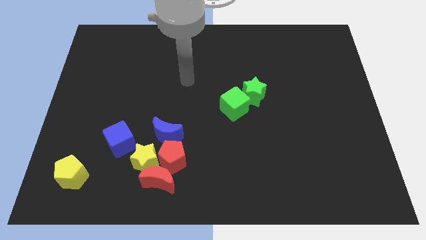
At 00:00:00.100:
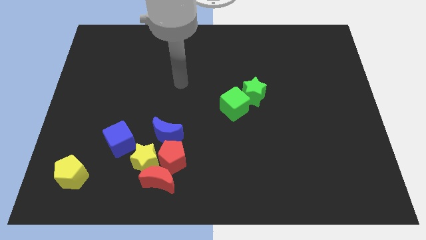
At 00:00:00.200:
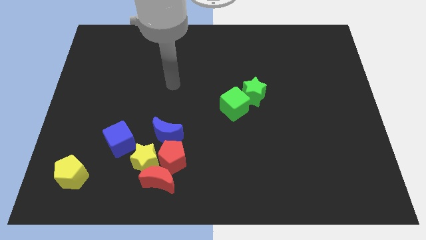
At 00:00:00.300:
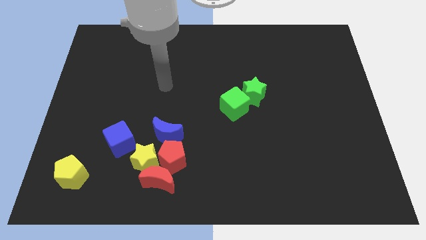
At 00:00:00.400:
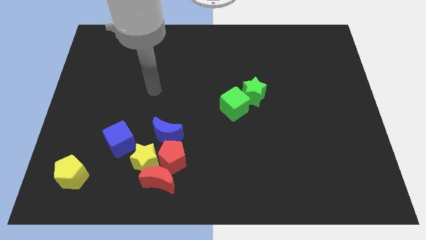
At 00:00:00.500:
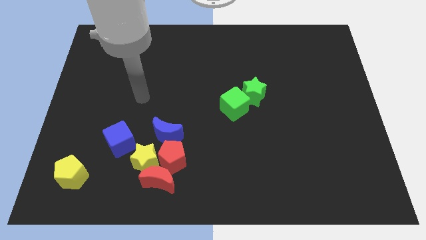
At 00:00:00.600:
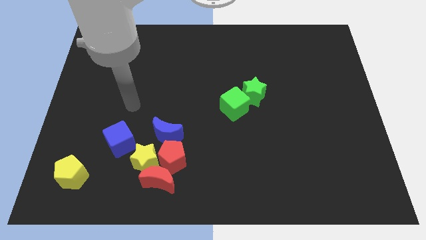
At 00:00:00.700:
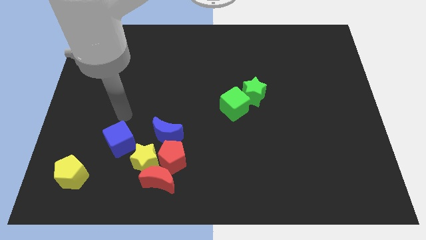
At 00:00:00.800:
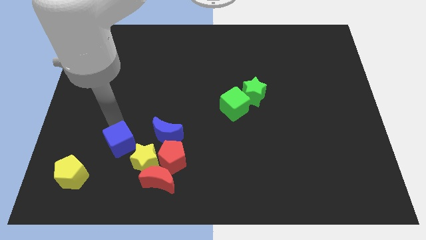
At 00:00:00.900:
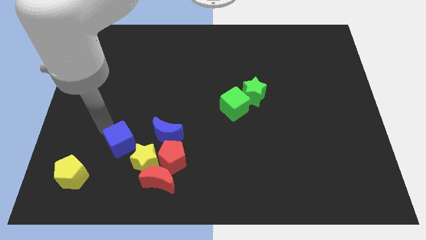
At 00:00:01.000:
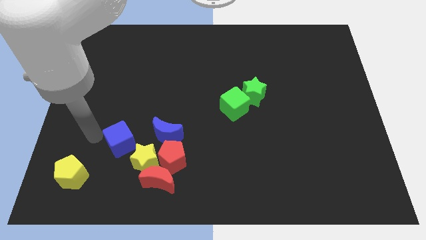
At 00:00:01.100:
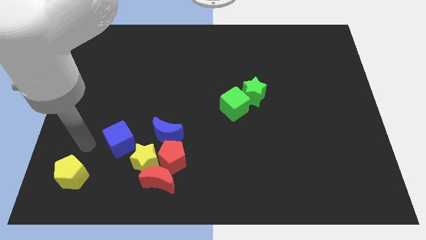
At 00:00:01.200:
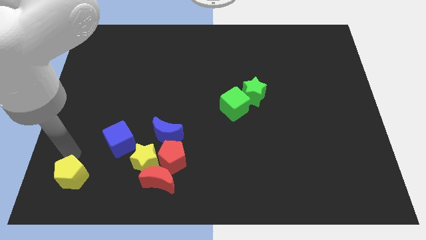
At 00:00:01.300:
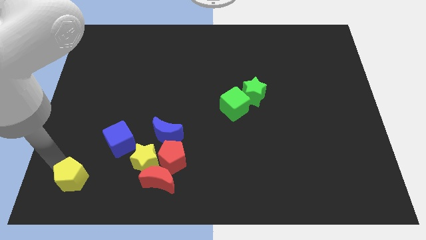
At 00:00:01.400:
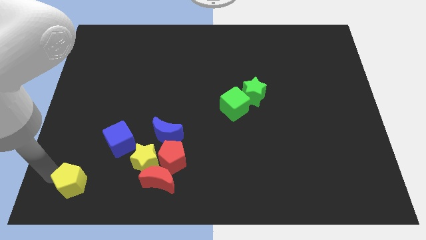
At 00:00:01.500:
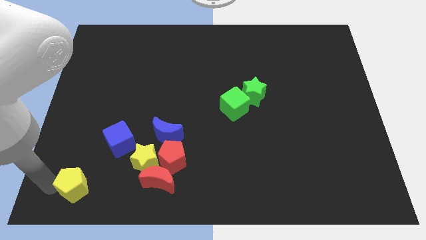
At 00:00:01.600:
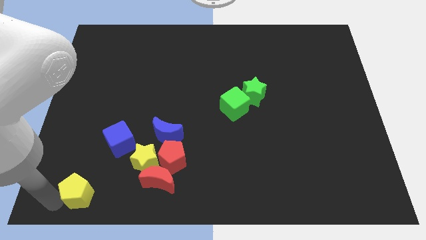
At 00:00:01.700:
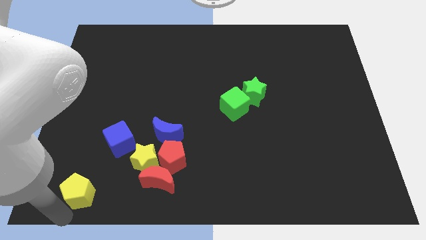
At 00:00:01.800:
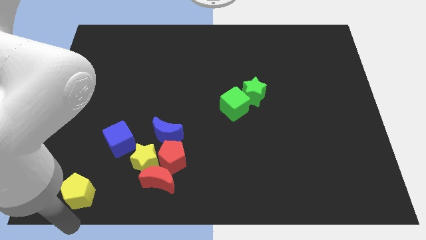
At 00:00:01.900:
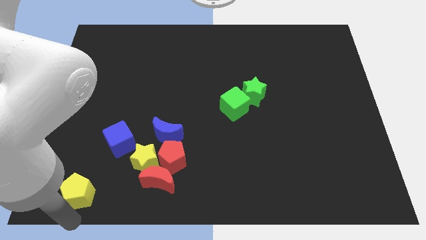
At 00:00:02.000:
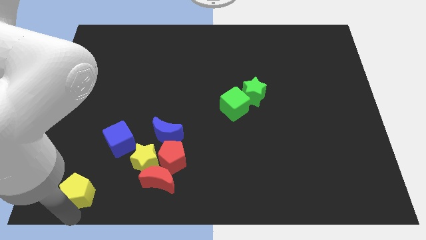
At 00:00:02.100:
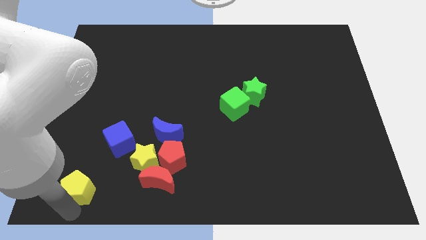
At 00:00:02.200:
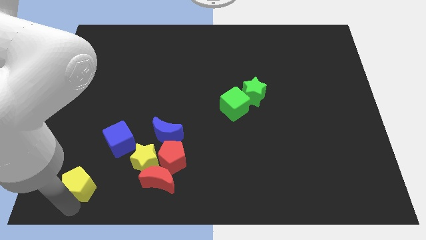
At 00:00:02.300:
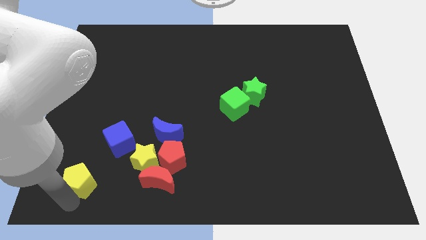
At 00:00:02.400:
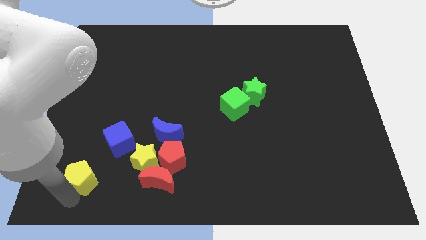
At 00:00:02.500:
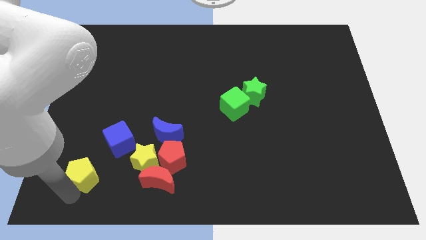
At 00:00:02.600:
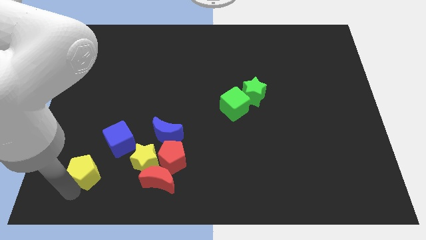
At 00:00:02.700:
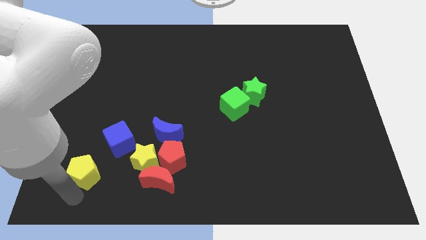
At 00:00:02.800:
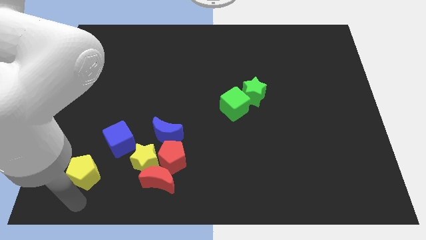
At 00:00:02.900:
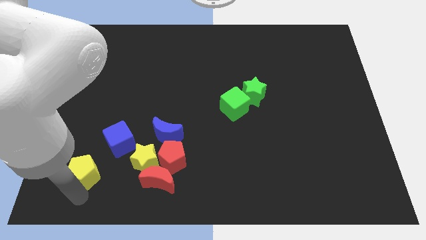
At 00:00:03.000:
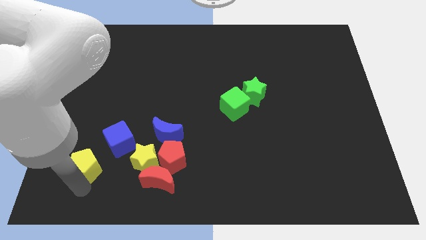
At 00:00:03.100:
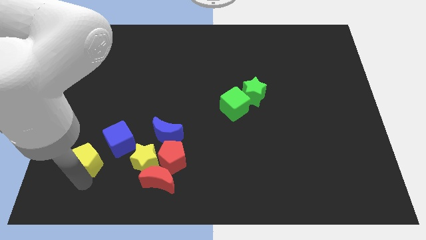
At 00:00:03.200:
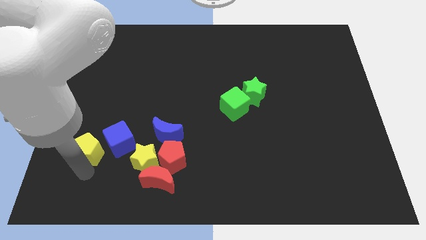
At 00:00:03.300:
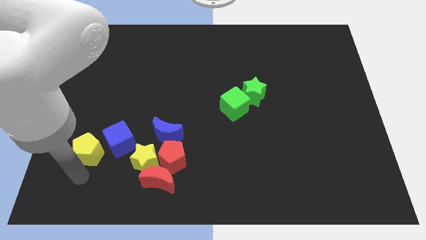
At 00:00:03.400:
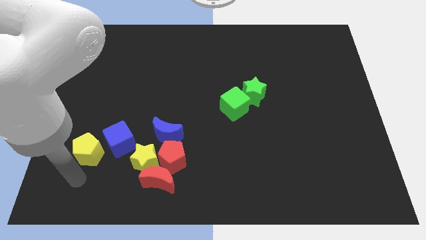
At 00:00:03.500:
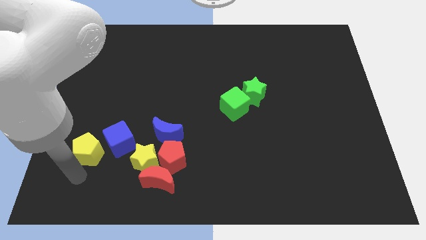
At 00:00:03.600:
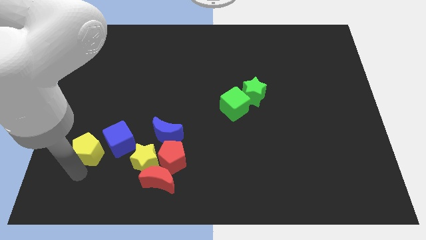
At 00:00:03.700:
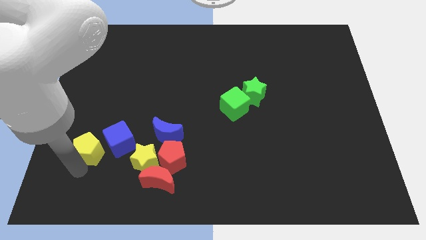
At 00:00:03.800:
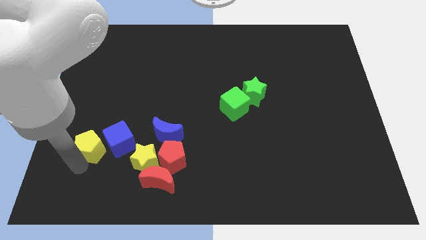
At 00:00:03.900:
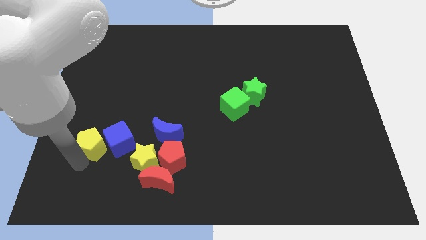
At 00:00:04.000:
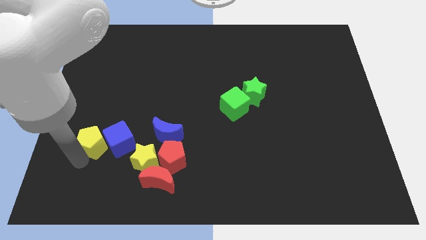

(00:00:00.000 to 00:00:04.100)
slide the yellow pentagon diagonally up and to the right somewhat

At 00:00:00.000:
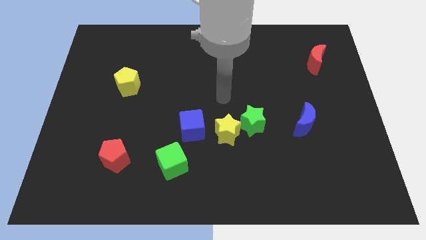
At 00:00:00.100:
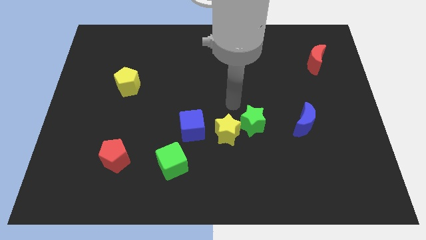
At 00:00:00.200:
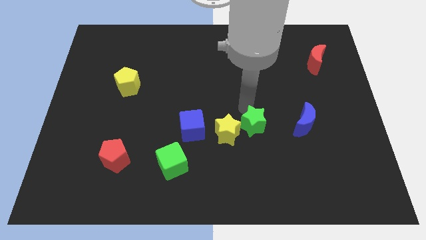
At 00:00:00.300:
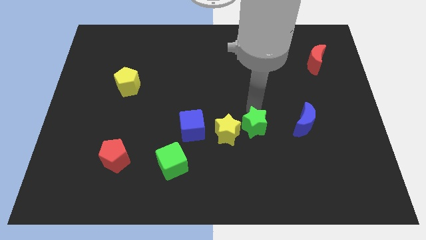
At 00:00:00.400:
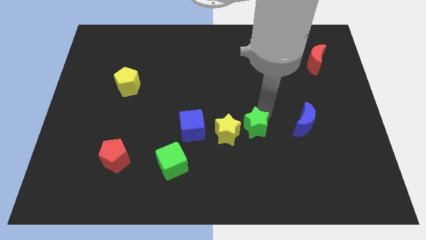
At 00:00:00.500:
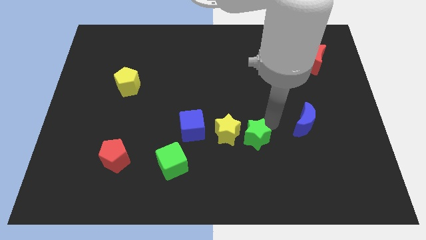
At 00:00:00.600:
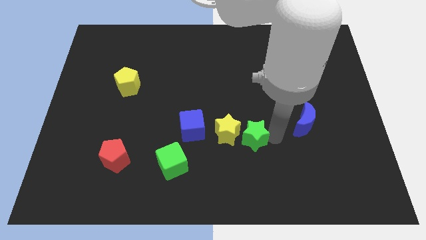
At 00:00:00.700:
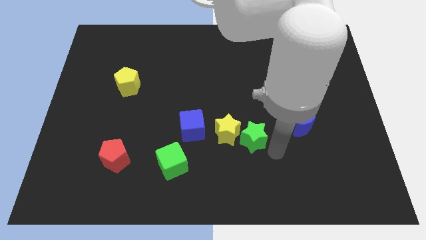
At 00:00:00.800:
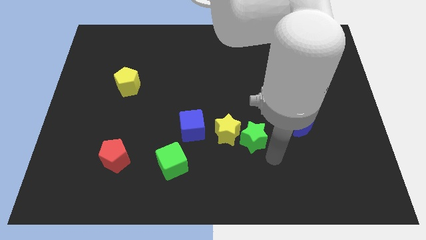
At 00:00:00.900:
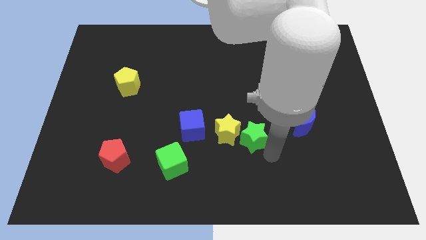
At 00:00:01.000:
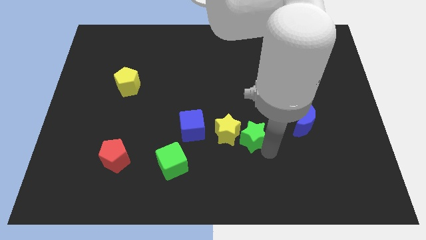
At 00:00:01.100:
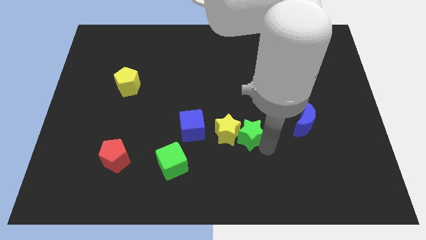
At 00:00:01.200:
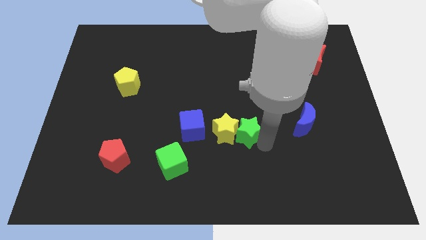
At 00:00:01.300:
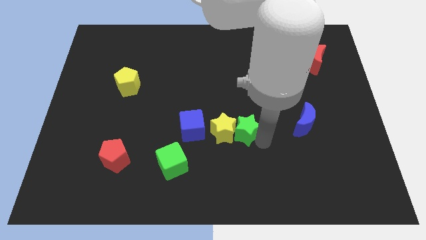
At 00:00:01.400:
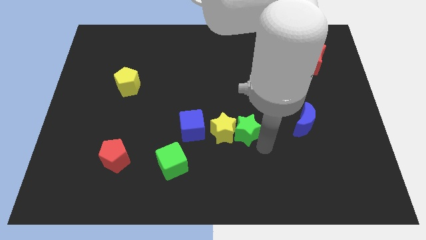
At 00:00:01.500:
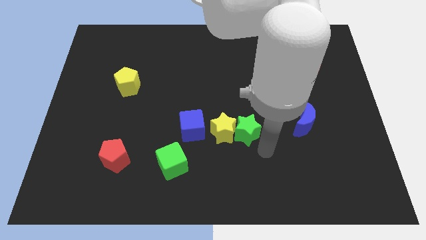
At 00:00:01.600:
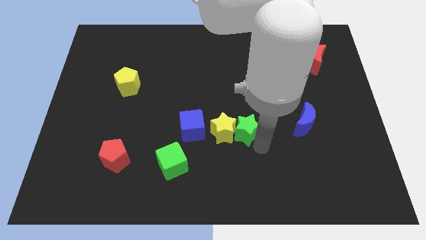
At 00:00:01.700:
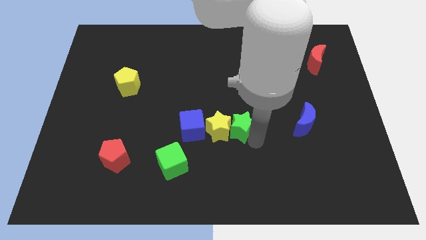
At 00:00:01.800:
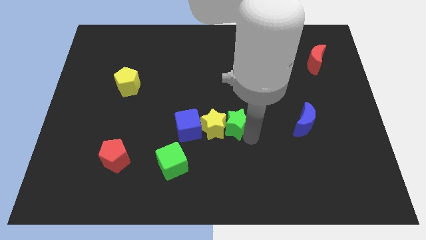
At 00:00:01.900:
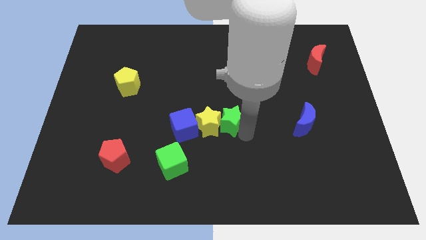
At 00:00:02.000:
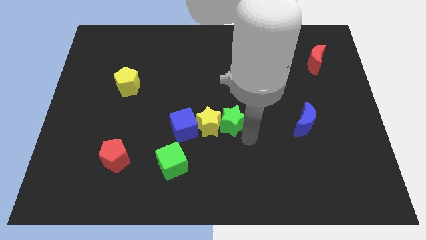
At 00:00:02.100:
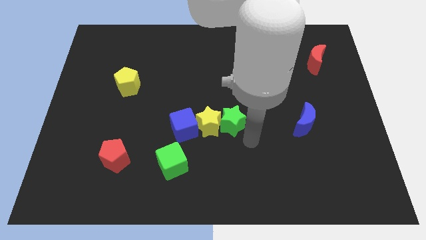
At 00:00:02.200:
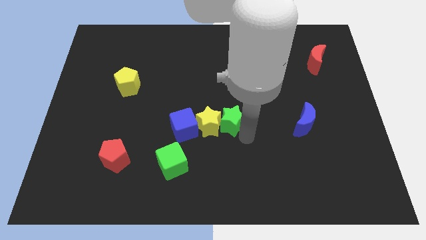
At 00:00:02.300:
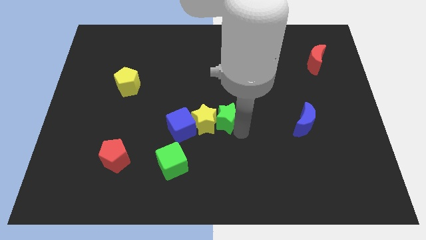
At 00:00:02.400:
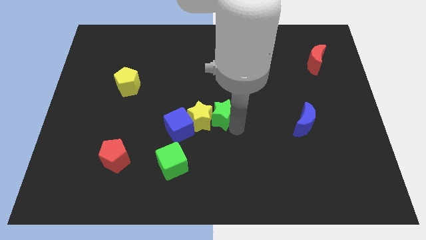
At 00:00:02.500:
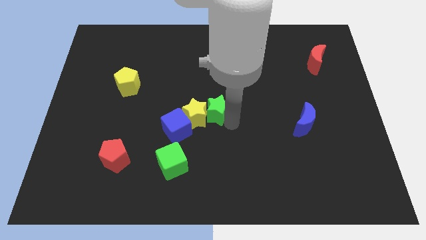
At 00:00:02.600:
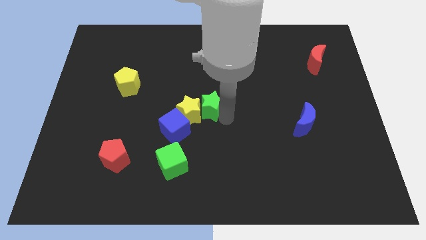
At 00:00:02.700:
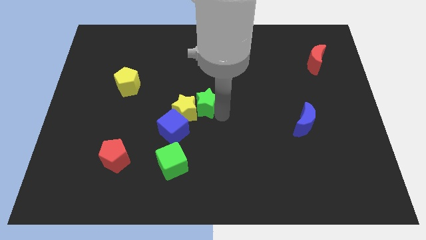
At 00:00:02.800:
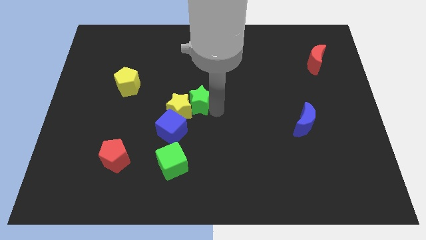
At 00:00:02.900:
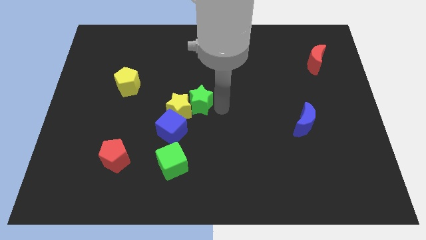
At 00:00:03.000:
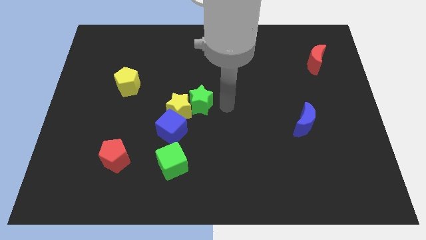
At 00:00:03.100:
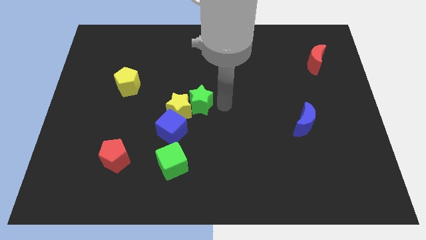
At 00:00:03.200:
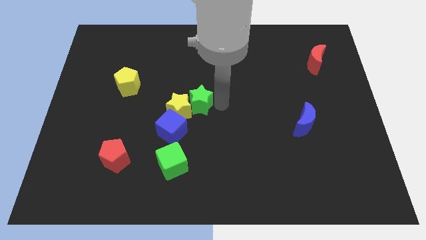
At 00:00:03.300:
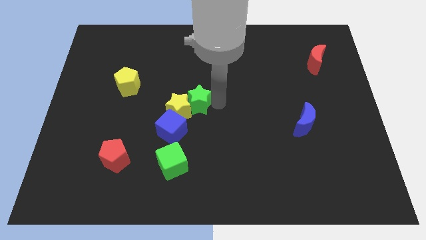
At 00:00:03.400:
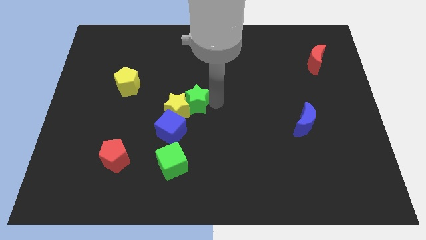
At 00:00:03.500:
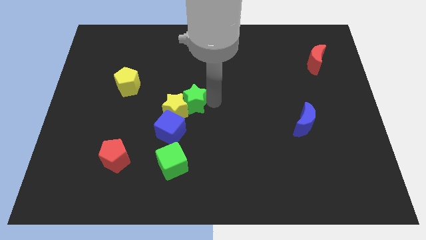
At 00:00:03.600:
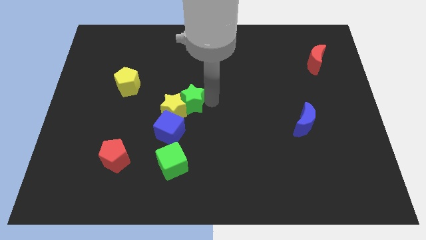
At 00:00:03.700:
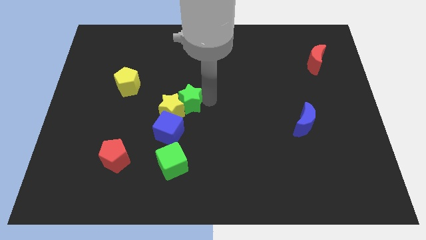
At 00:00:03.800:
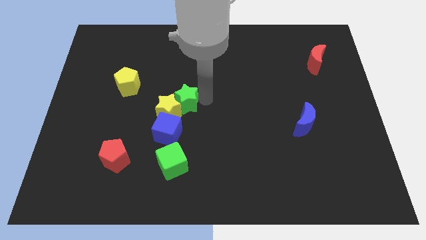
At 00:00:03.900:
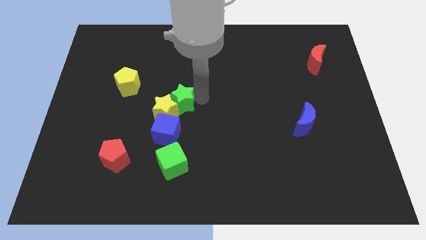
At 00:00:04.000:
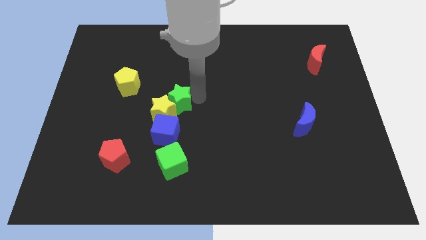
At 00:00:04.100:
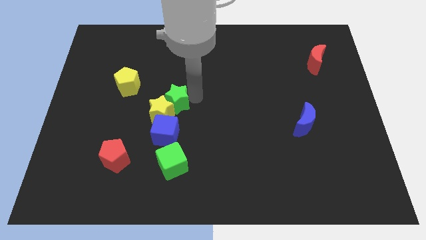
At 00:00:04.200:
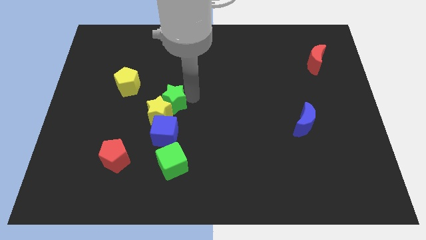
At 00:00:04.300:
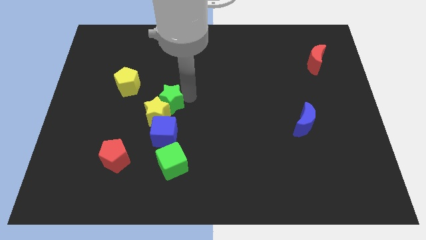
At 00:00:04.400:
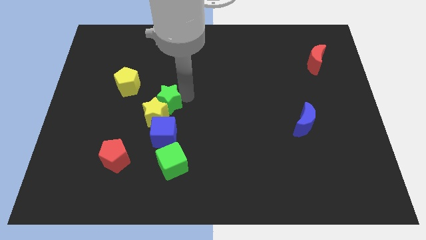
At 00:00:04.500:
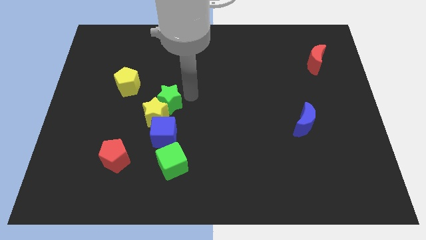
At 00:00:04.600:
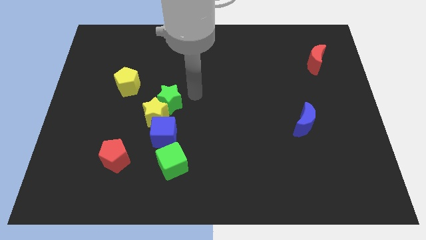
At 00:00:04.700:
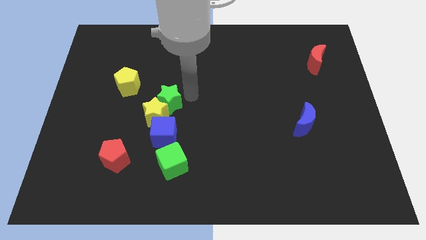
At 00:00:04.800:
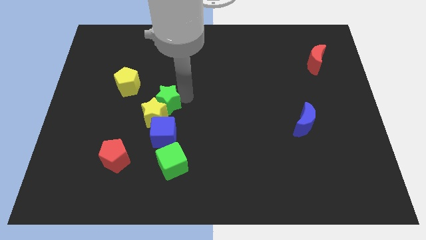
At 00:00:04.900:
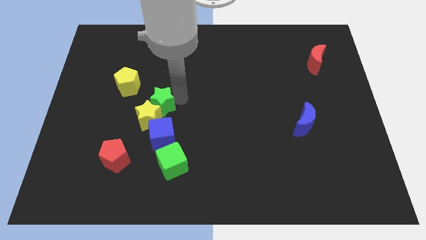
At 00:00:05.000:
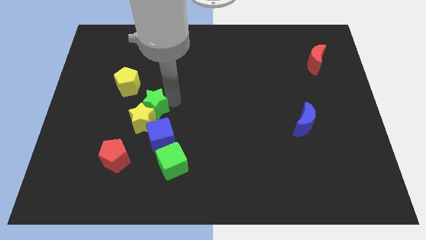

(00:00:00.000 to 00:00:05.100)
move the green star to the left
